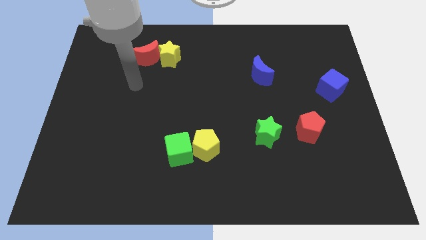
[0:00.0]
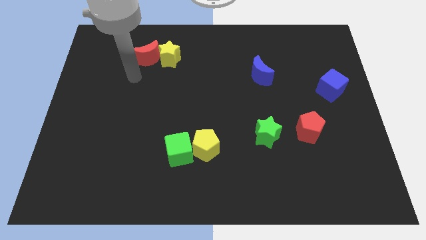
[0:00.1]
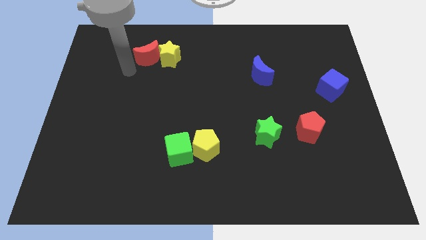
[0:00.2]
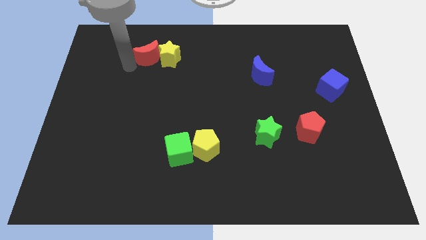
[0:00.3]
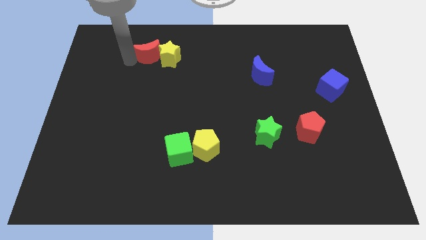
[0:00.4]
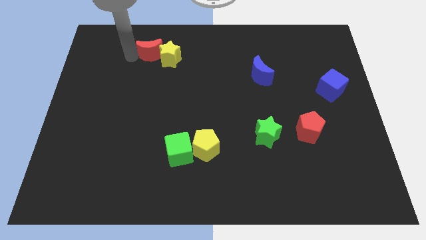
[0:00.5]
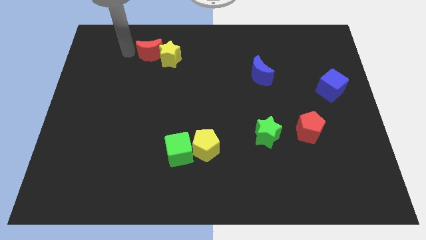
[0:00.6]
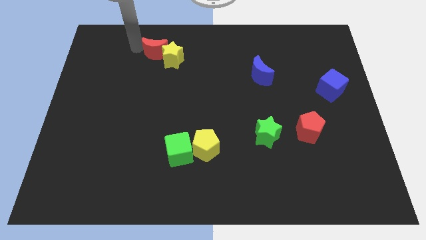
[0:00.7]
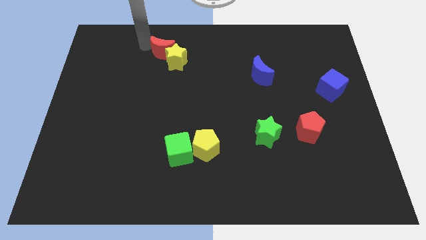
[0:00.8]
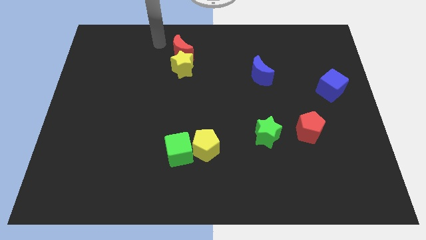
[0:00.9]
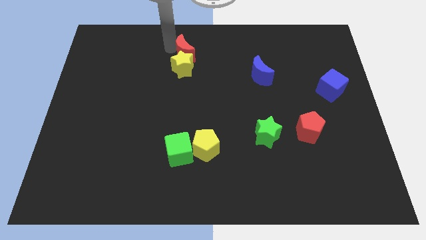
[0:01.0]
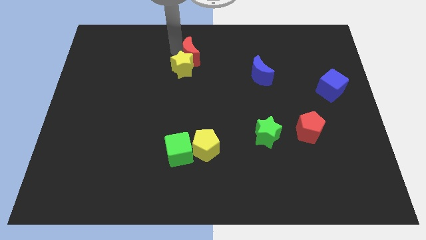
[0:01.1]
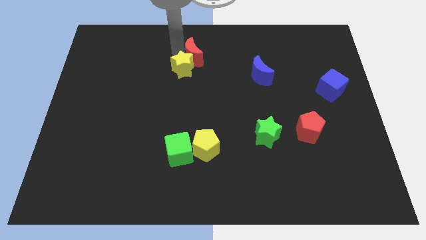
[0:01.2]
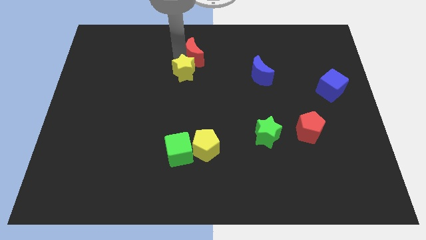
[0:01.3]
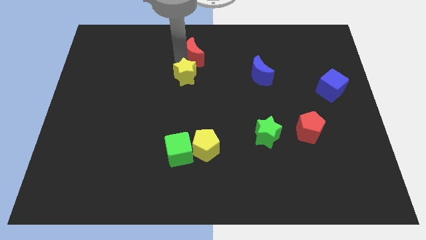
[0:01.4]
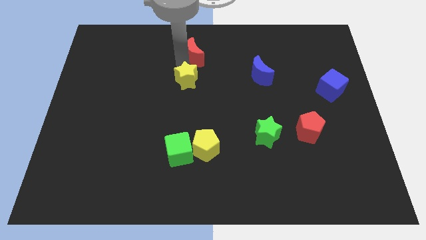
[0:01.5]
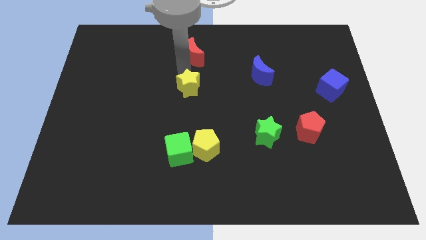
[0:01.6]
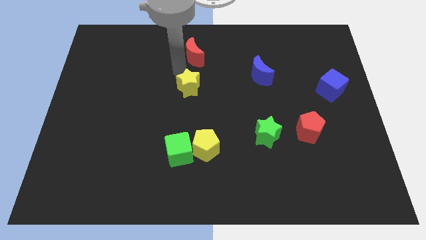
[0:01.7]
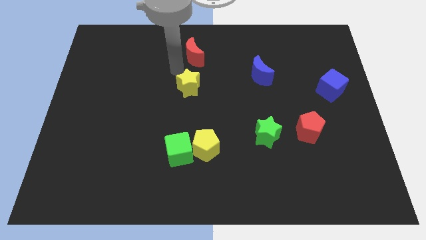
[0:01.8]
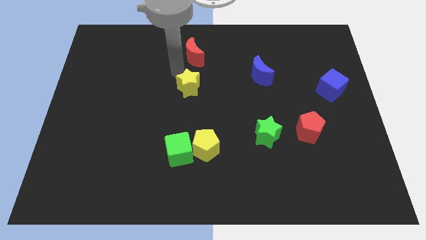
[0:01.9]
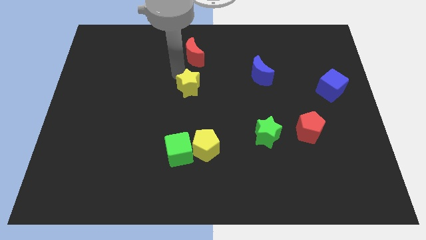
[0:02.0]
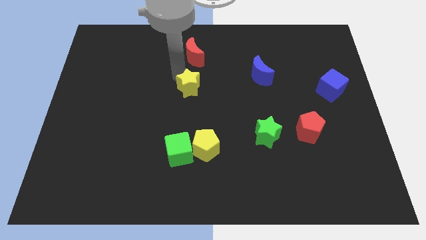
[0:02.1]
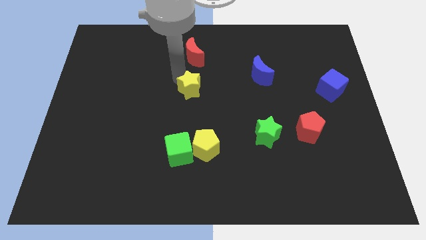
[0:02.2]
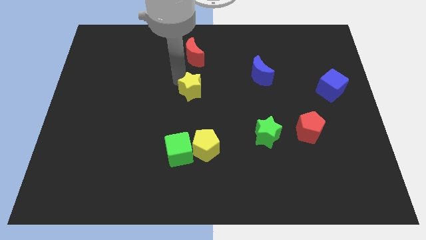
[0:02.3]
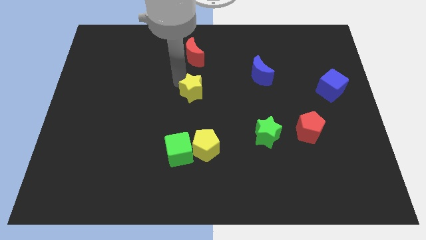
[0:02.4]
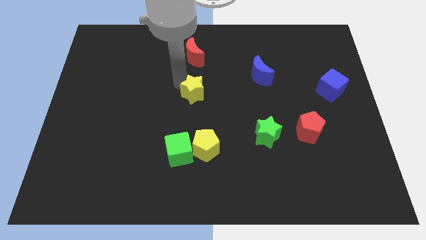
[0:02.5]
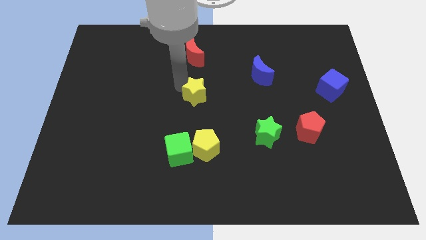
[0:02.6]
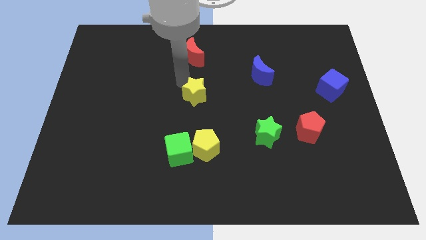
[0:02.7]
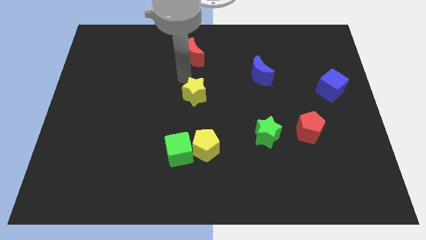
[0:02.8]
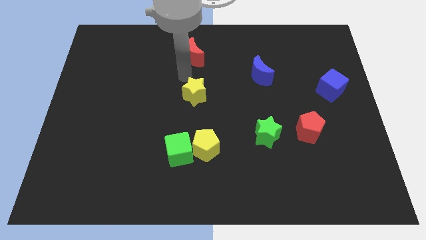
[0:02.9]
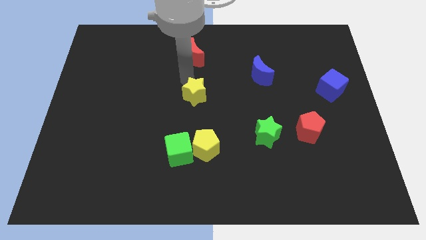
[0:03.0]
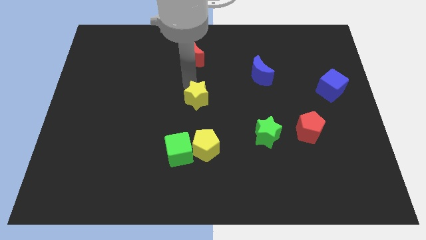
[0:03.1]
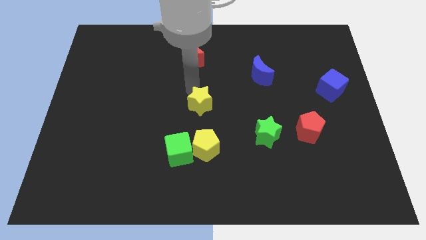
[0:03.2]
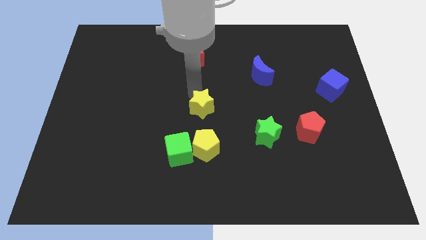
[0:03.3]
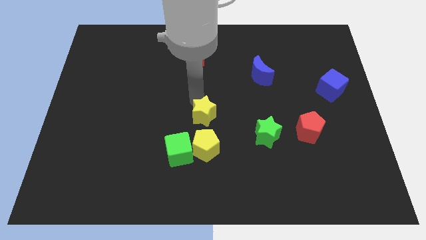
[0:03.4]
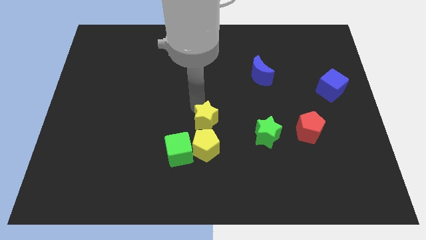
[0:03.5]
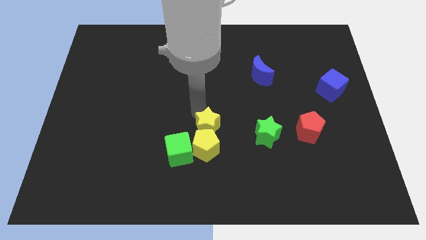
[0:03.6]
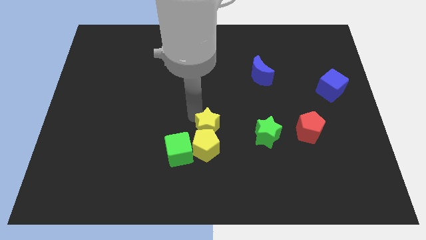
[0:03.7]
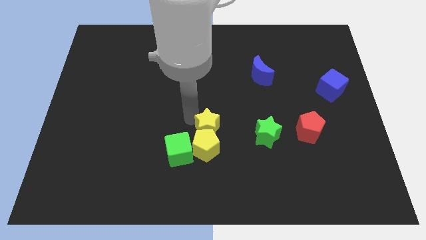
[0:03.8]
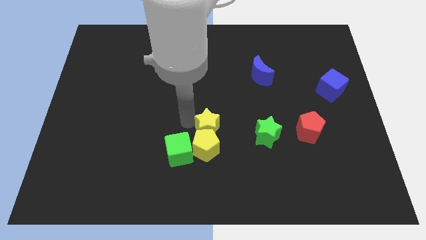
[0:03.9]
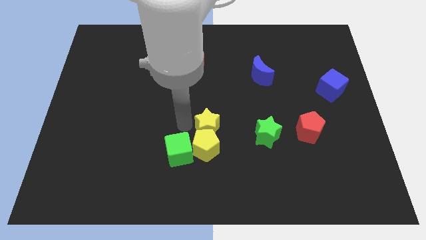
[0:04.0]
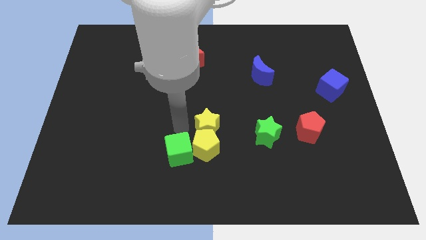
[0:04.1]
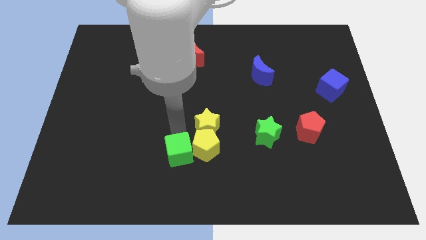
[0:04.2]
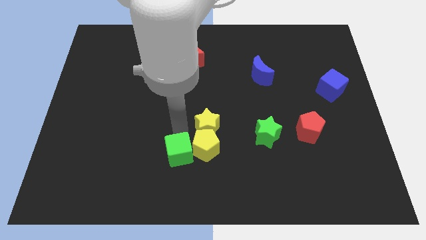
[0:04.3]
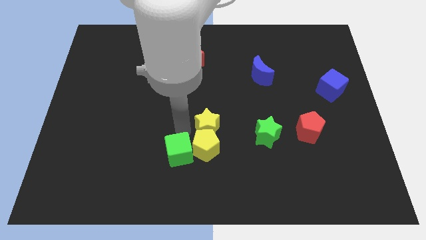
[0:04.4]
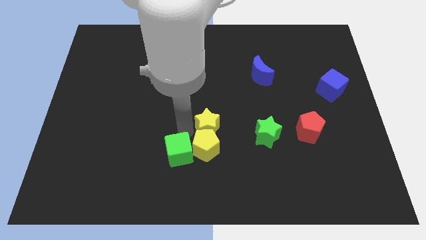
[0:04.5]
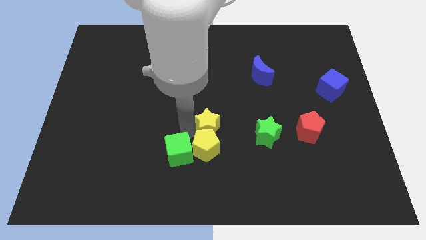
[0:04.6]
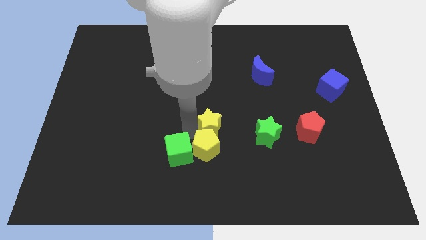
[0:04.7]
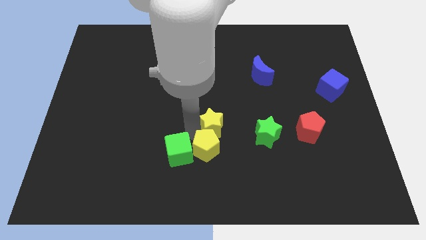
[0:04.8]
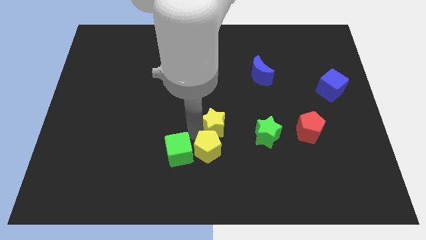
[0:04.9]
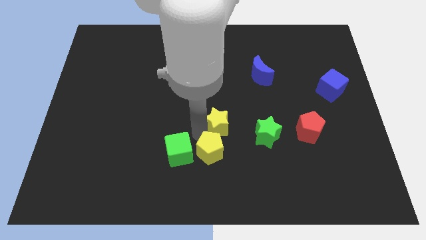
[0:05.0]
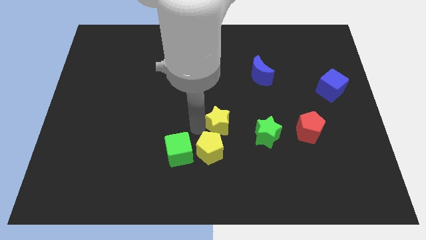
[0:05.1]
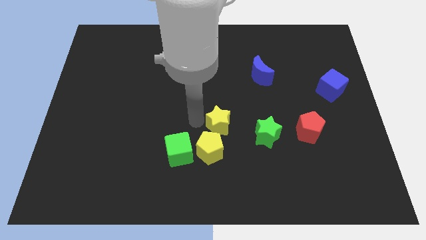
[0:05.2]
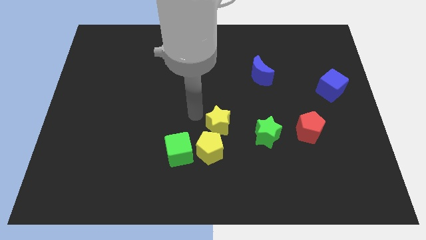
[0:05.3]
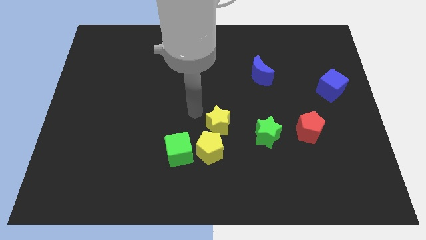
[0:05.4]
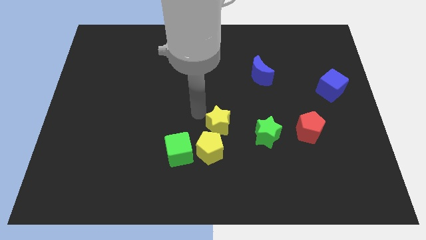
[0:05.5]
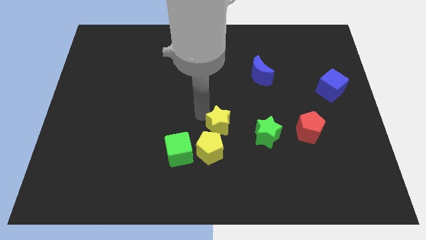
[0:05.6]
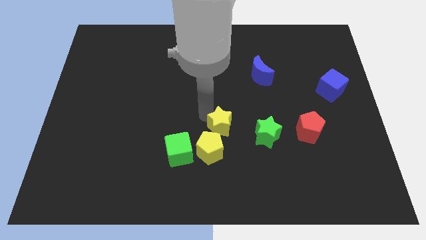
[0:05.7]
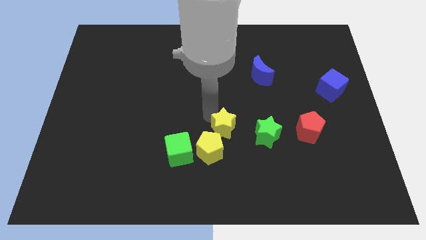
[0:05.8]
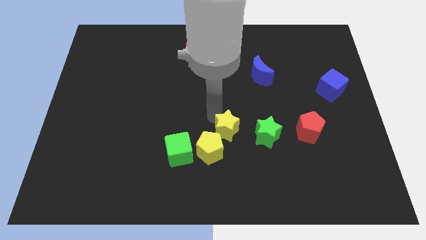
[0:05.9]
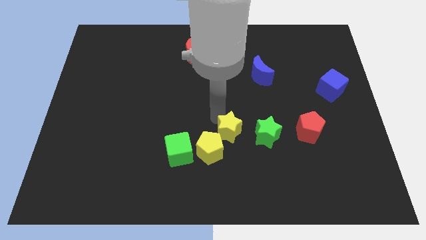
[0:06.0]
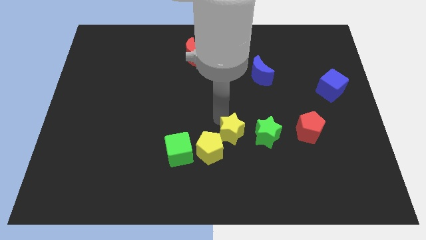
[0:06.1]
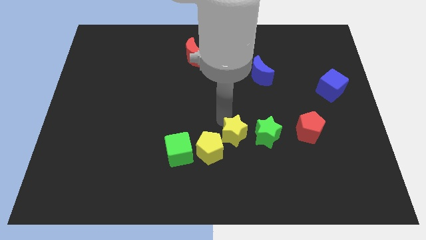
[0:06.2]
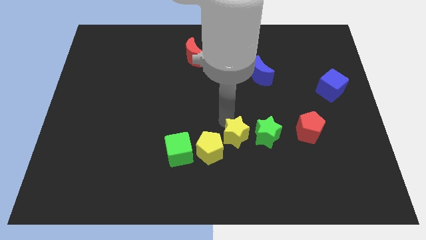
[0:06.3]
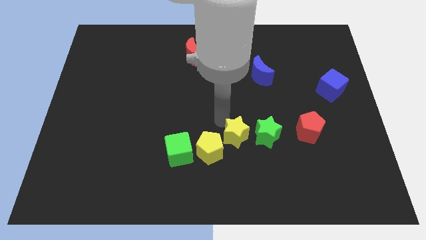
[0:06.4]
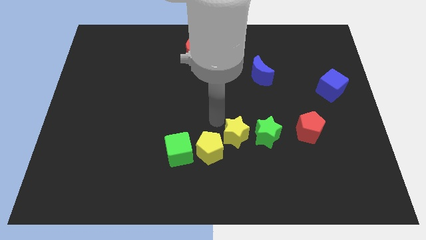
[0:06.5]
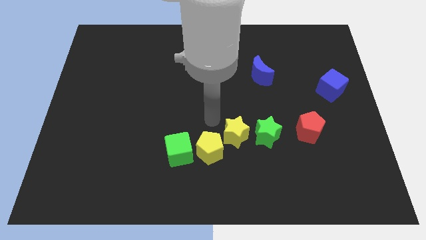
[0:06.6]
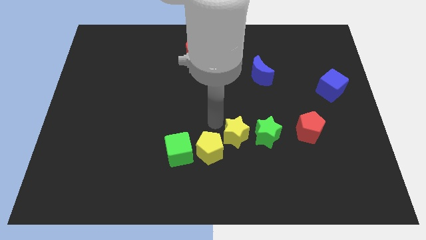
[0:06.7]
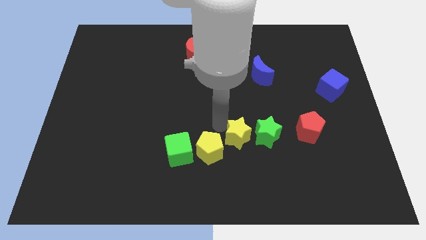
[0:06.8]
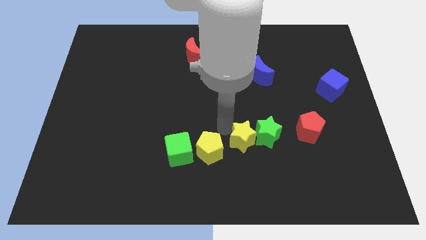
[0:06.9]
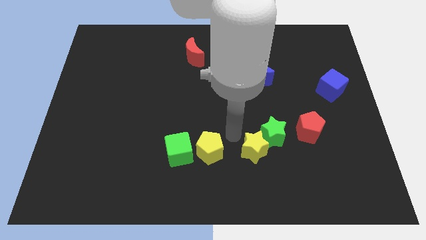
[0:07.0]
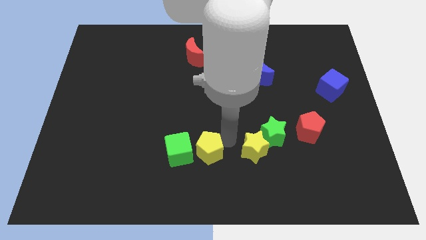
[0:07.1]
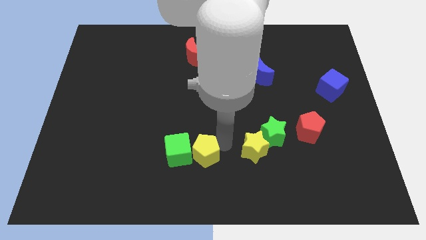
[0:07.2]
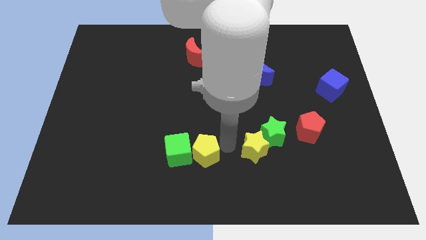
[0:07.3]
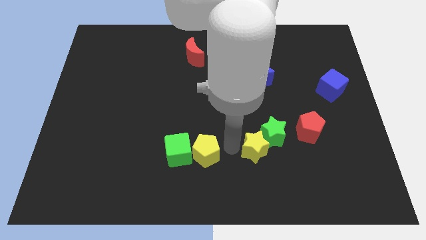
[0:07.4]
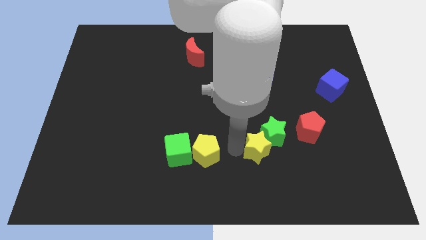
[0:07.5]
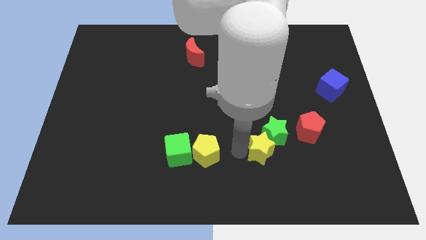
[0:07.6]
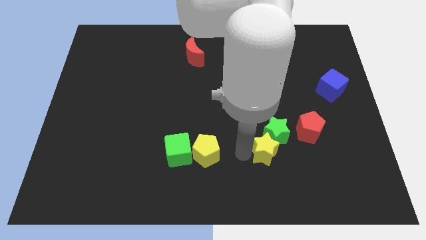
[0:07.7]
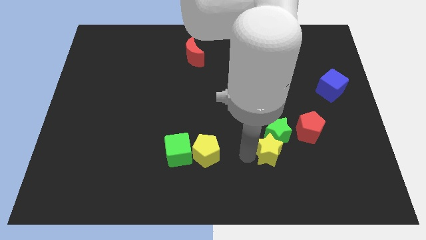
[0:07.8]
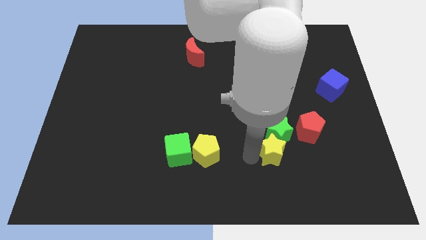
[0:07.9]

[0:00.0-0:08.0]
slide the yellow star to the bottom right side of the green star
